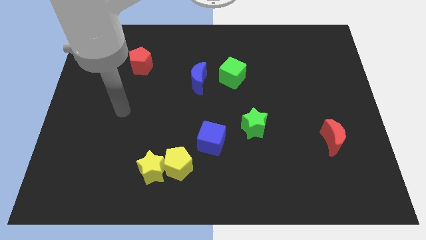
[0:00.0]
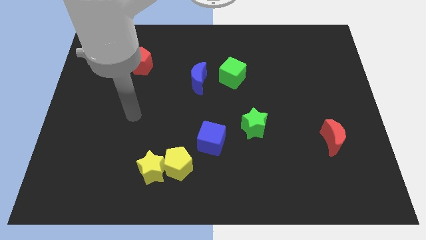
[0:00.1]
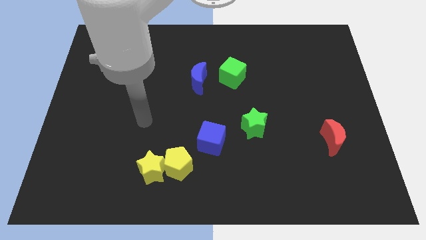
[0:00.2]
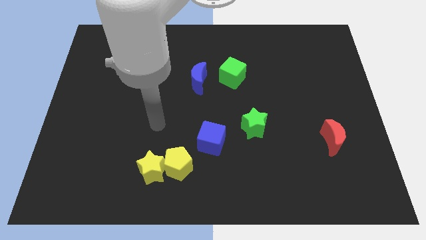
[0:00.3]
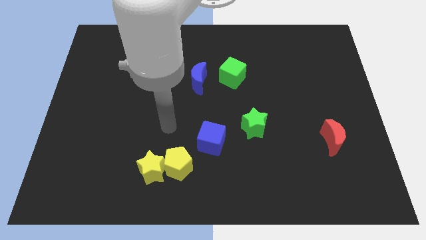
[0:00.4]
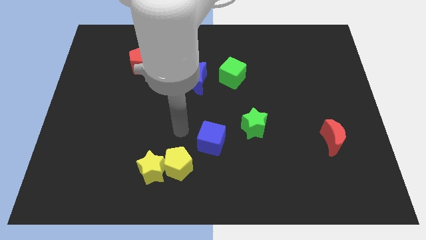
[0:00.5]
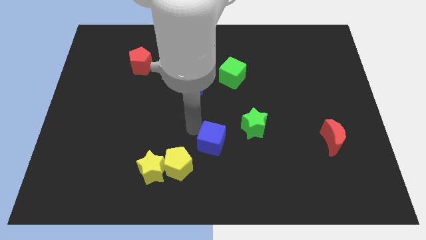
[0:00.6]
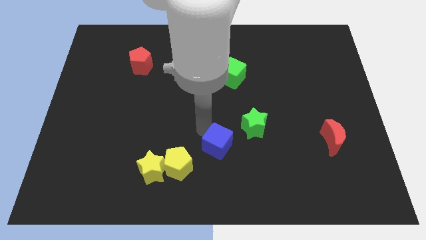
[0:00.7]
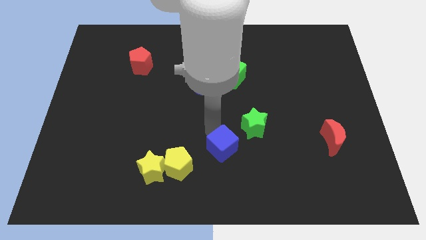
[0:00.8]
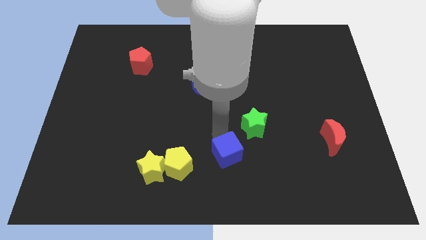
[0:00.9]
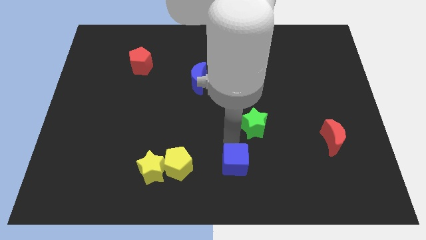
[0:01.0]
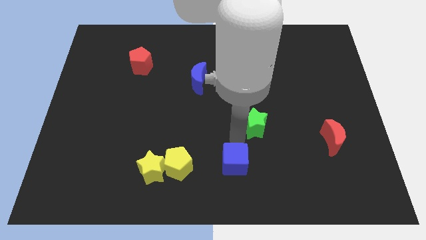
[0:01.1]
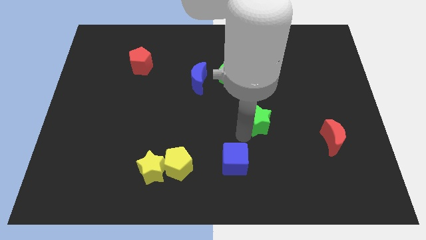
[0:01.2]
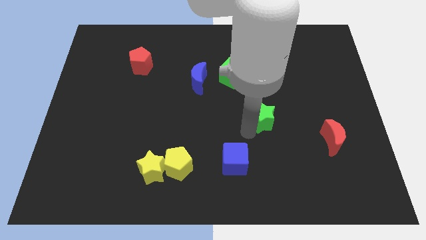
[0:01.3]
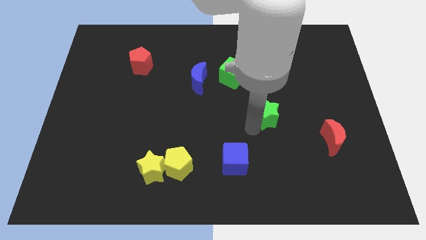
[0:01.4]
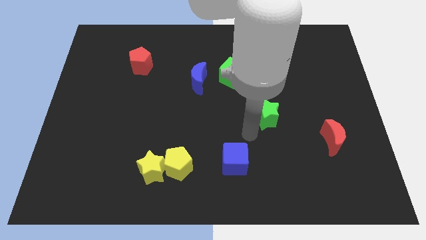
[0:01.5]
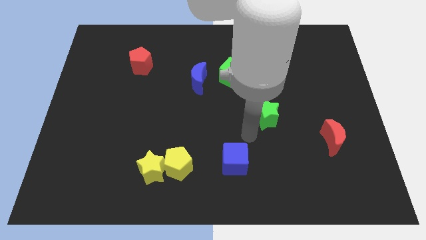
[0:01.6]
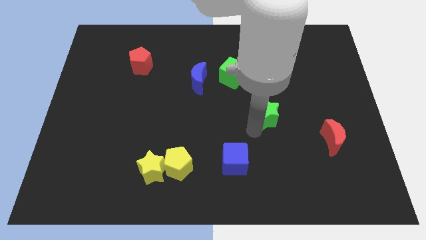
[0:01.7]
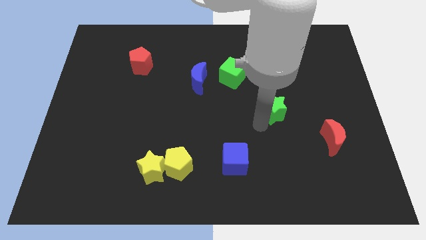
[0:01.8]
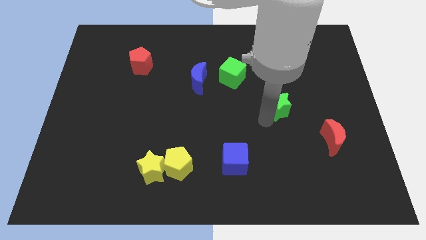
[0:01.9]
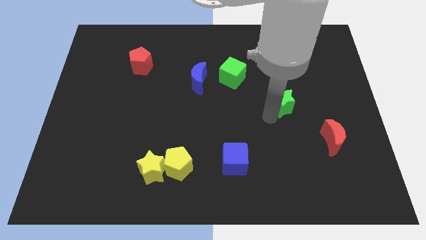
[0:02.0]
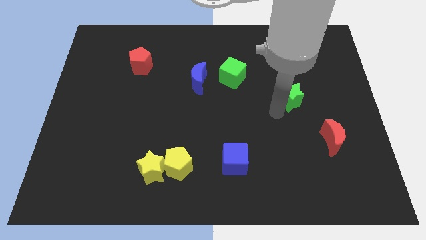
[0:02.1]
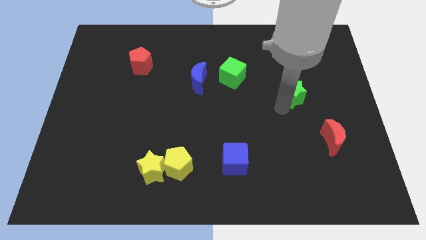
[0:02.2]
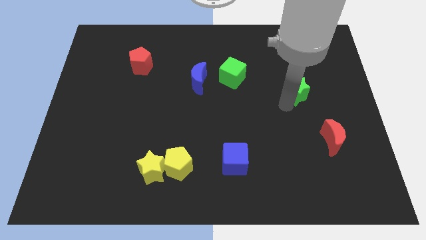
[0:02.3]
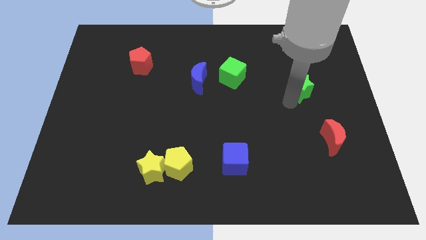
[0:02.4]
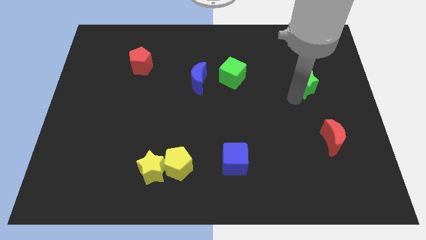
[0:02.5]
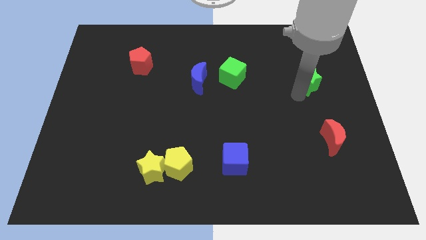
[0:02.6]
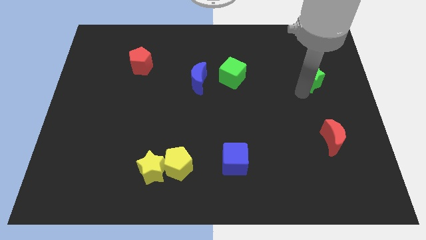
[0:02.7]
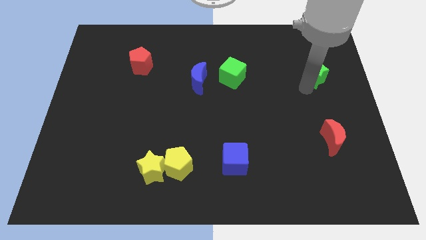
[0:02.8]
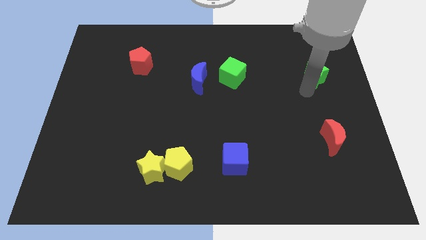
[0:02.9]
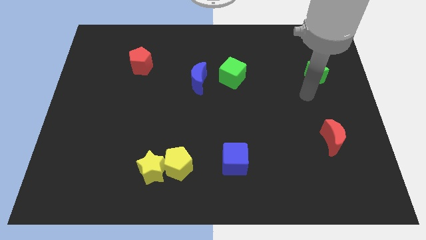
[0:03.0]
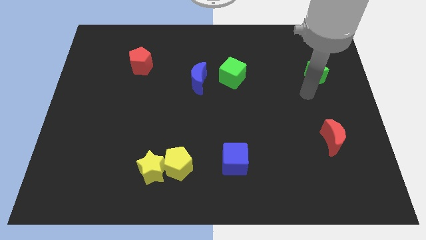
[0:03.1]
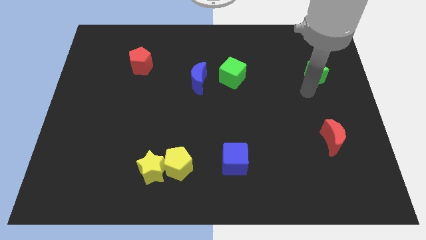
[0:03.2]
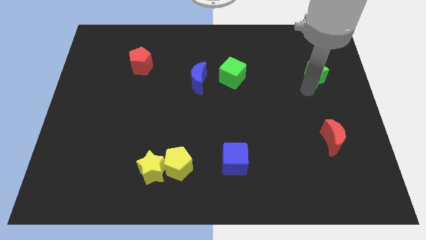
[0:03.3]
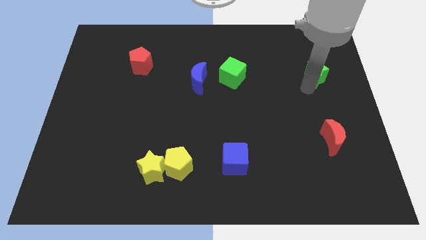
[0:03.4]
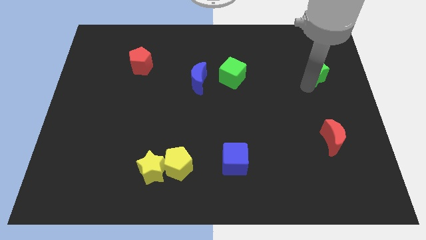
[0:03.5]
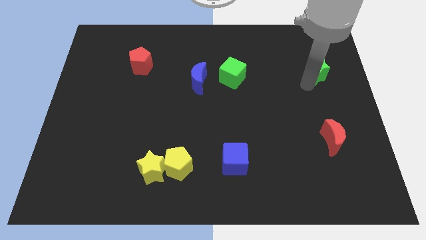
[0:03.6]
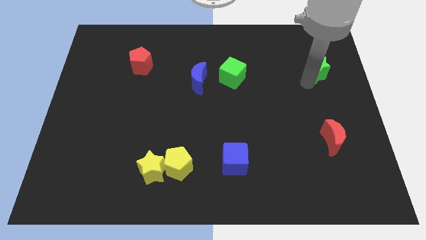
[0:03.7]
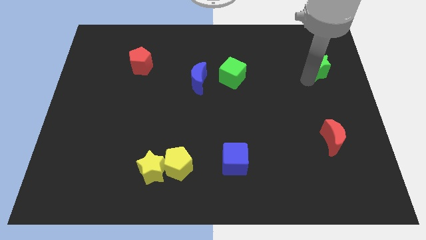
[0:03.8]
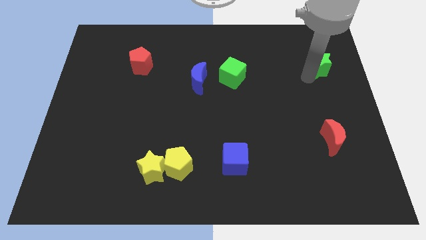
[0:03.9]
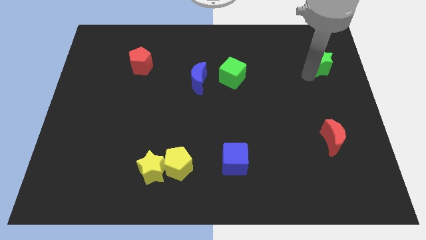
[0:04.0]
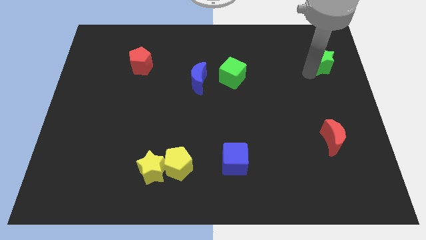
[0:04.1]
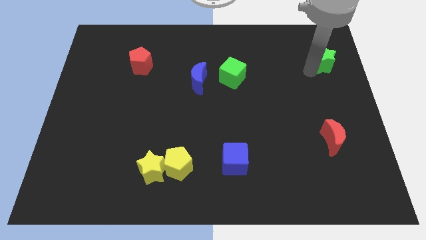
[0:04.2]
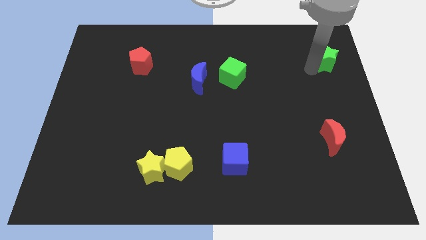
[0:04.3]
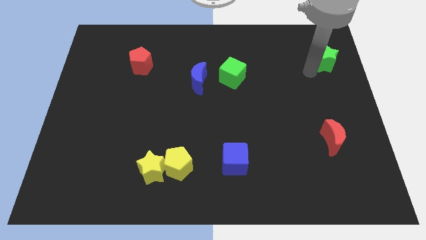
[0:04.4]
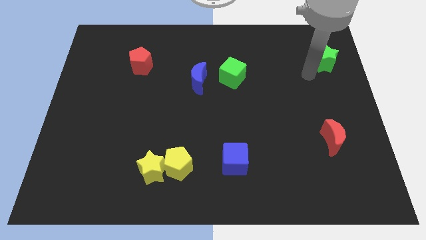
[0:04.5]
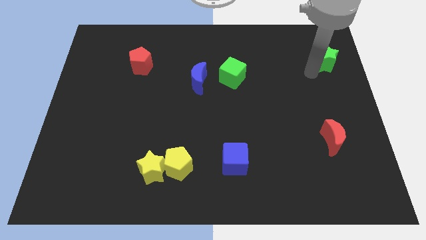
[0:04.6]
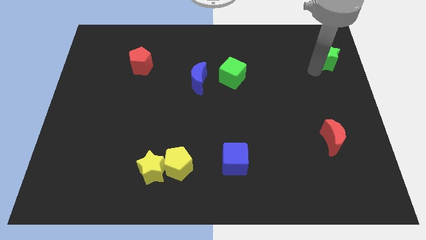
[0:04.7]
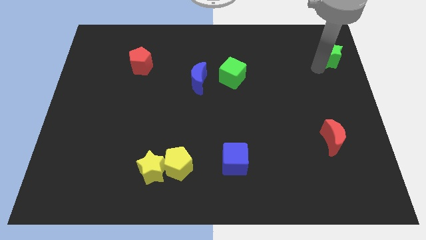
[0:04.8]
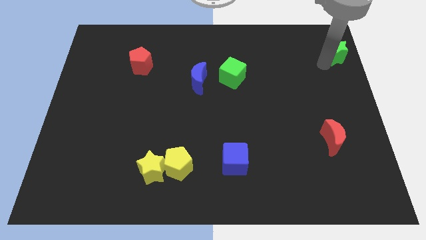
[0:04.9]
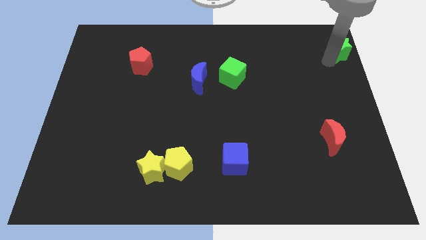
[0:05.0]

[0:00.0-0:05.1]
slide the green star to the top right of the board

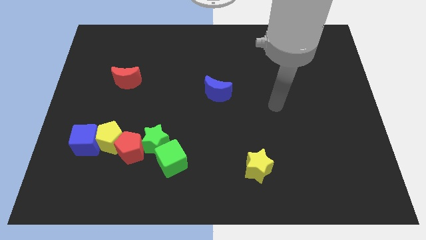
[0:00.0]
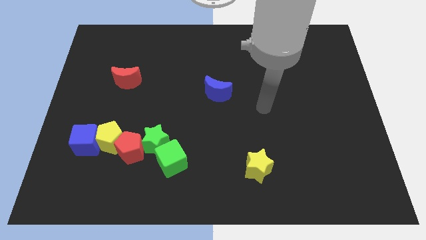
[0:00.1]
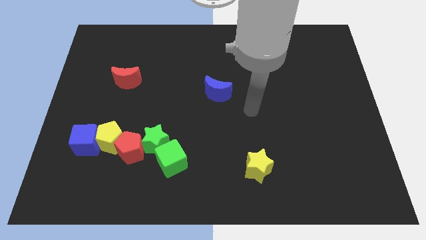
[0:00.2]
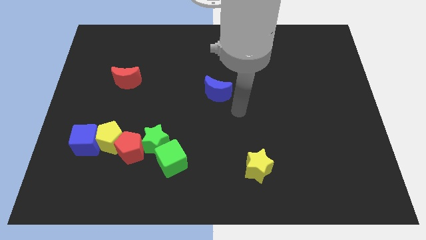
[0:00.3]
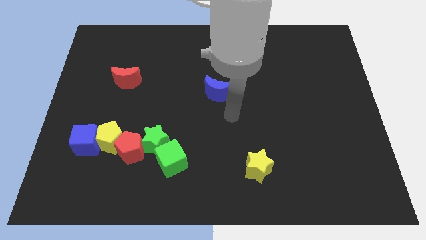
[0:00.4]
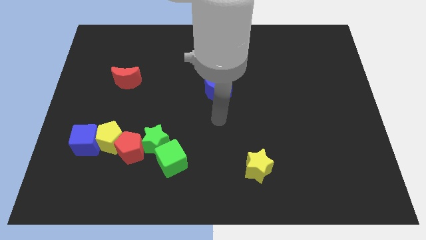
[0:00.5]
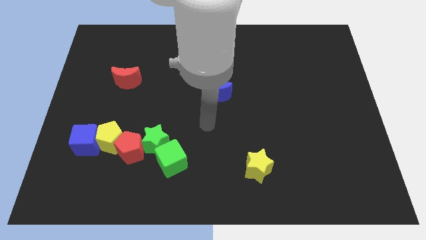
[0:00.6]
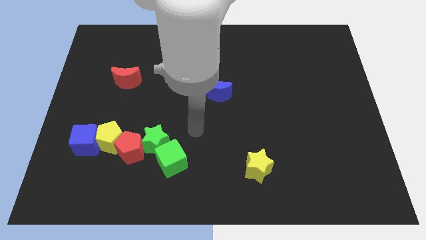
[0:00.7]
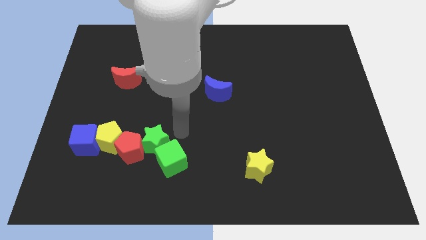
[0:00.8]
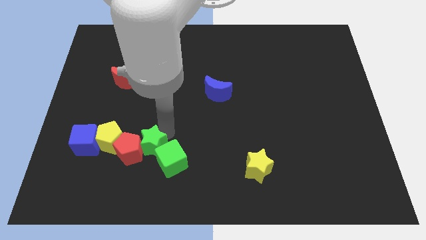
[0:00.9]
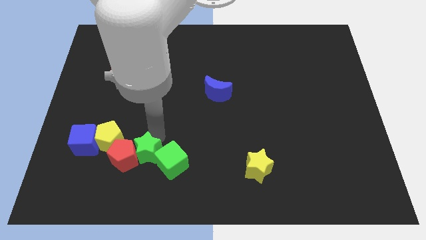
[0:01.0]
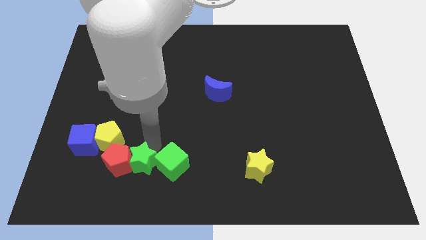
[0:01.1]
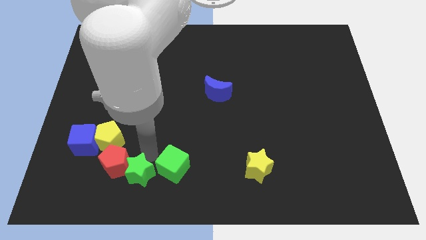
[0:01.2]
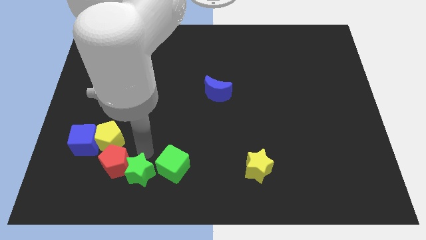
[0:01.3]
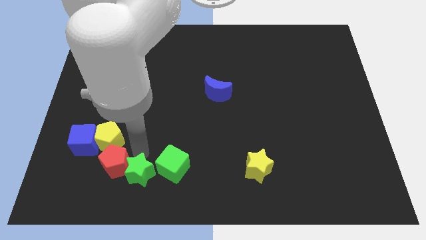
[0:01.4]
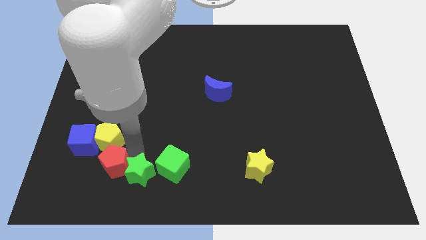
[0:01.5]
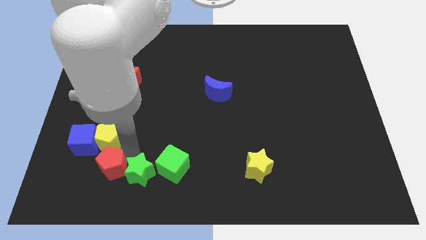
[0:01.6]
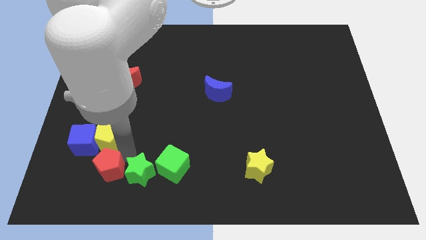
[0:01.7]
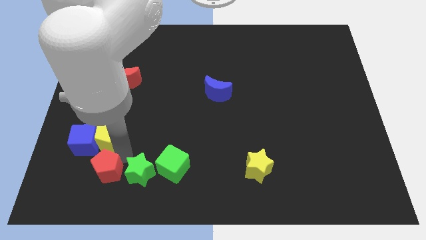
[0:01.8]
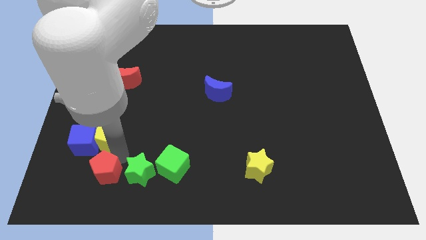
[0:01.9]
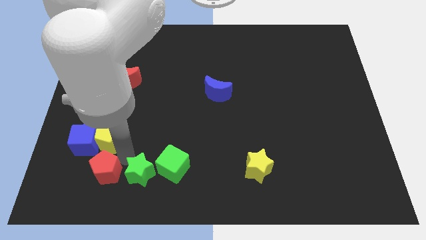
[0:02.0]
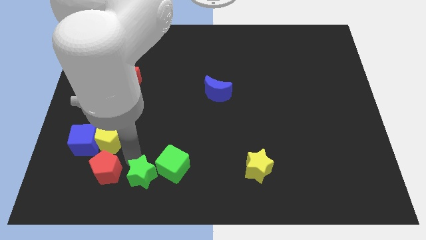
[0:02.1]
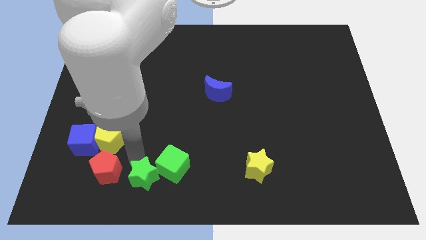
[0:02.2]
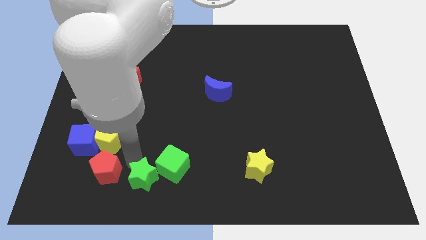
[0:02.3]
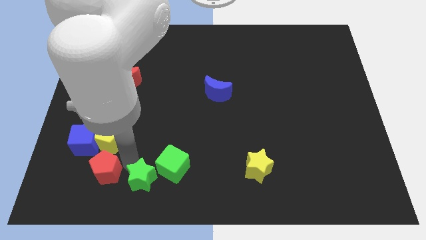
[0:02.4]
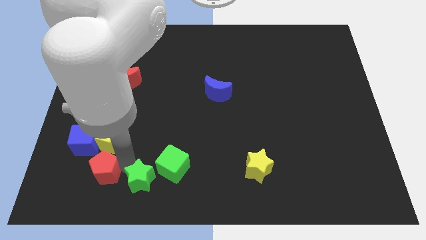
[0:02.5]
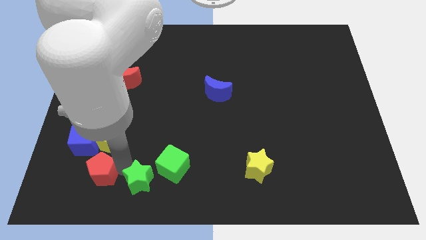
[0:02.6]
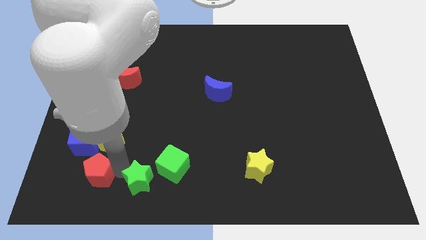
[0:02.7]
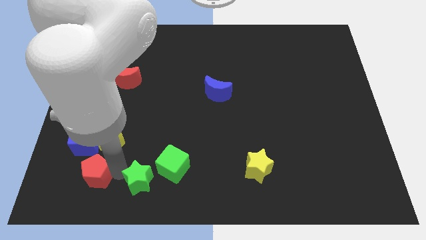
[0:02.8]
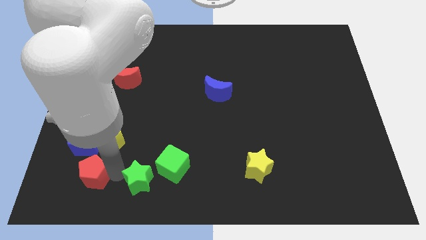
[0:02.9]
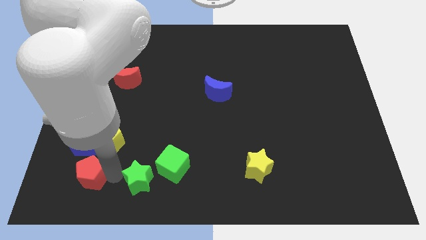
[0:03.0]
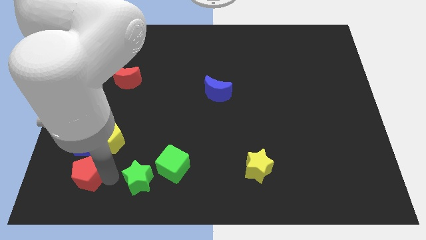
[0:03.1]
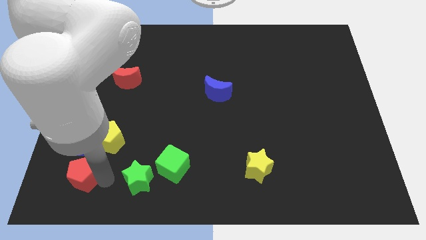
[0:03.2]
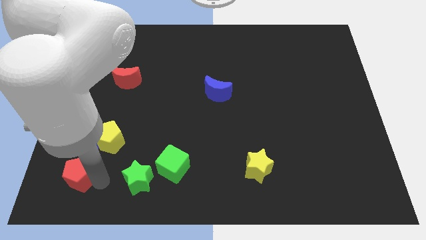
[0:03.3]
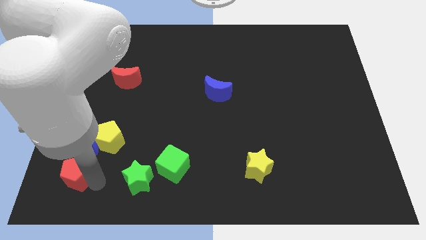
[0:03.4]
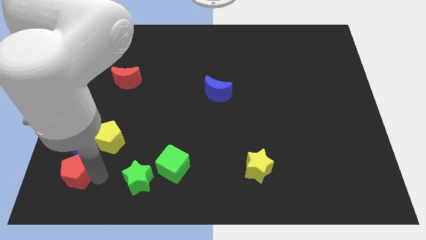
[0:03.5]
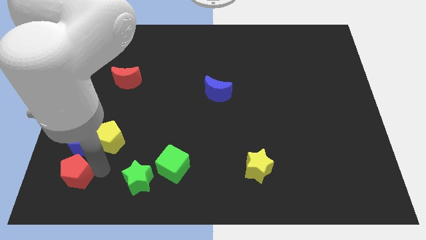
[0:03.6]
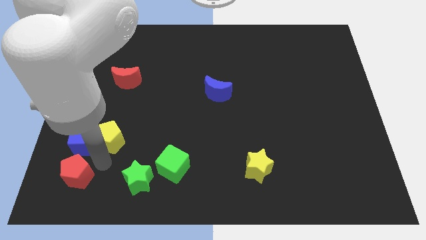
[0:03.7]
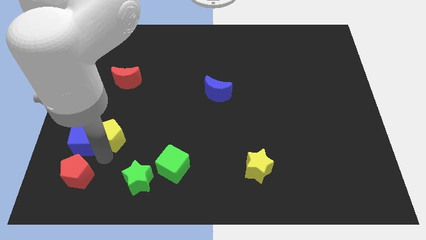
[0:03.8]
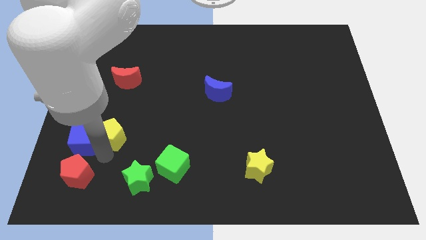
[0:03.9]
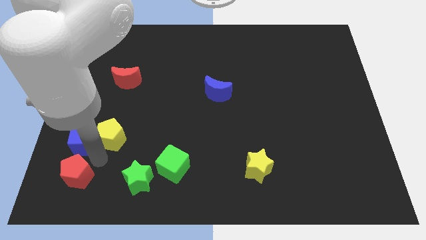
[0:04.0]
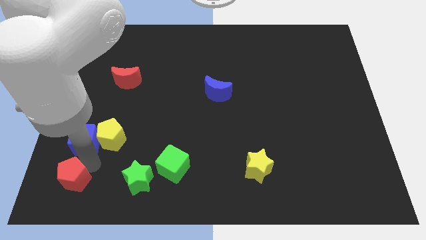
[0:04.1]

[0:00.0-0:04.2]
slide the red pentagon to the bottom left
